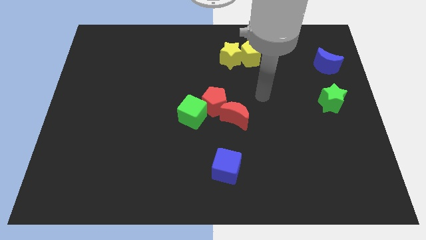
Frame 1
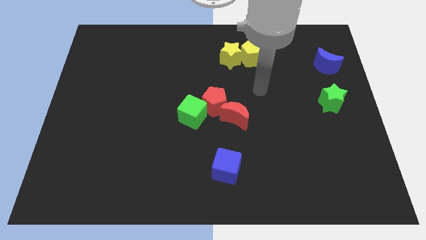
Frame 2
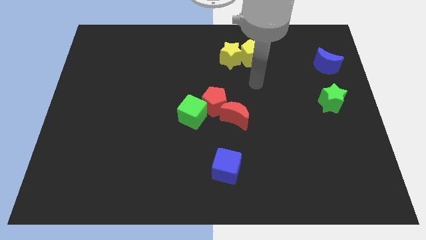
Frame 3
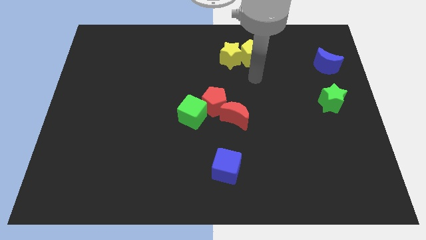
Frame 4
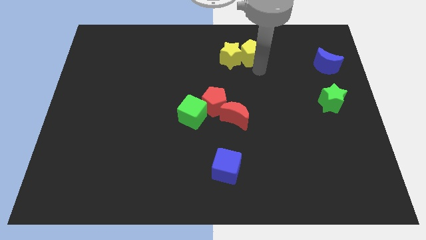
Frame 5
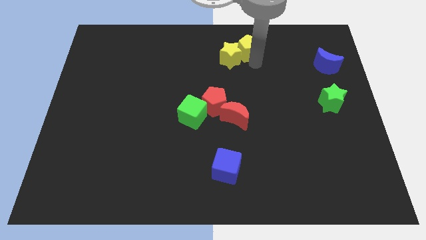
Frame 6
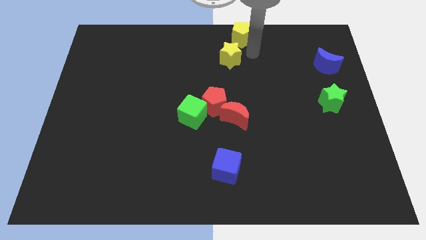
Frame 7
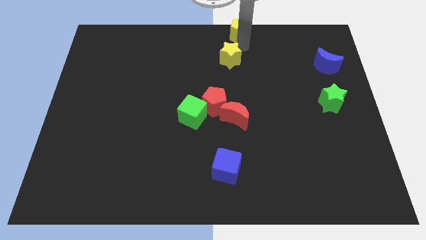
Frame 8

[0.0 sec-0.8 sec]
separate the yellow star from the yellow pentagon

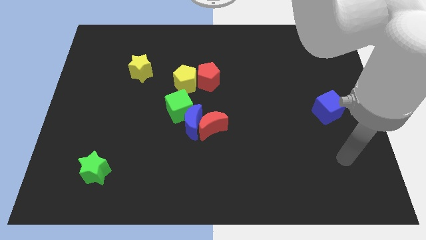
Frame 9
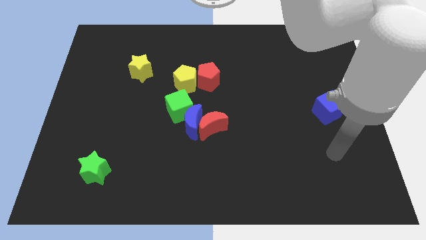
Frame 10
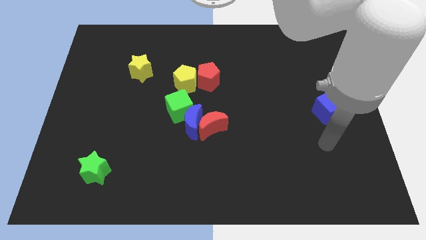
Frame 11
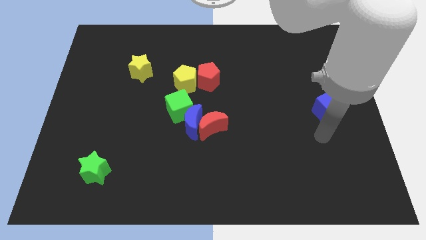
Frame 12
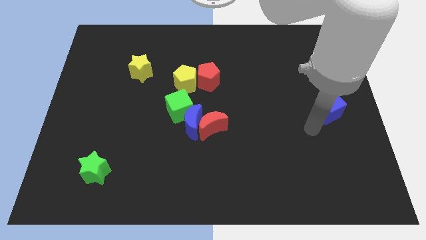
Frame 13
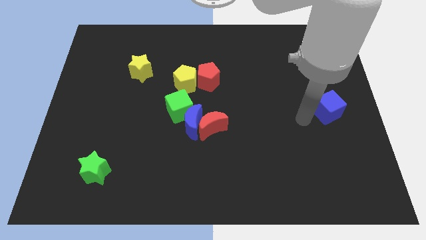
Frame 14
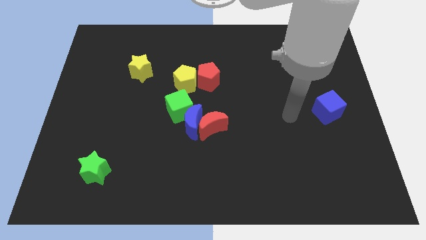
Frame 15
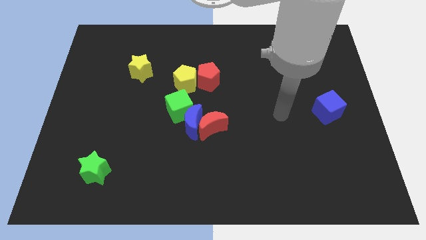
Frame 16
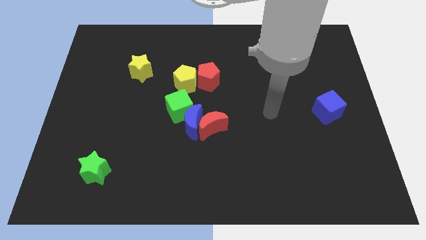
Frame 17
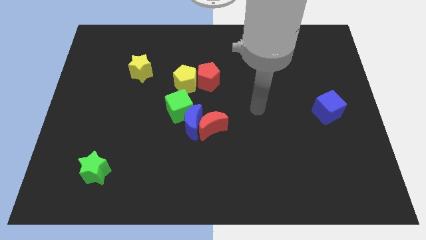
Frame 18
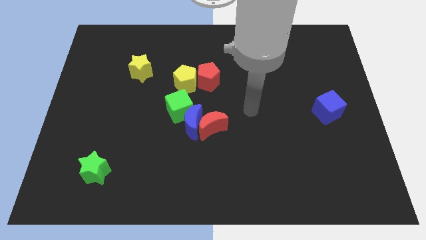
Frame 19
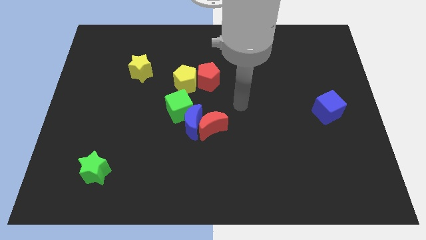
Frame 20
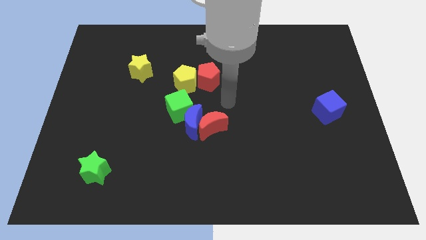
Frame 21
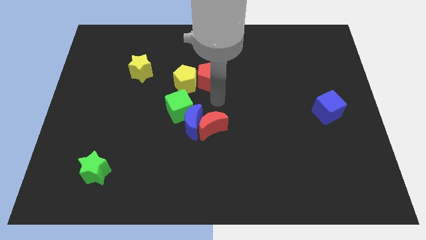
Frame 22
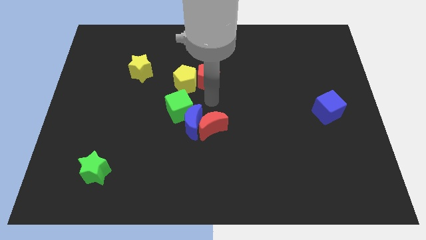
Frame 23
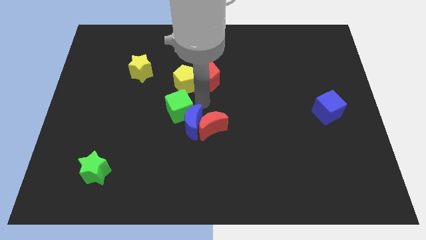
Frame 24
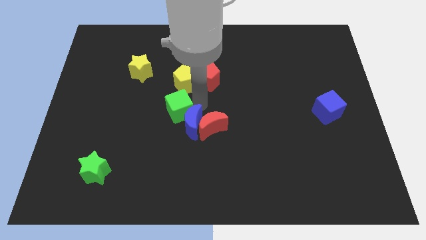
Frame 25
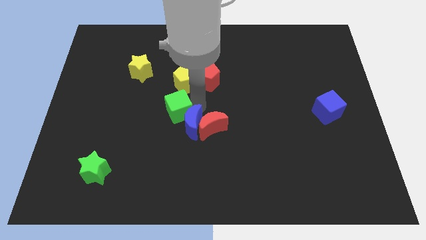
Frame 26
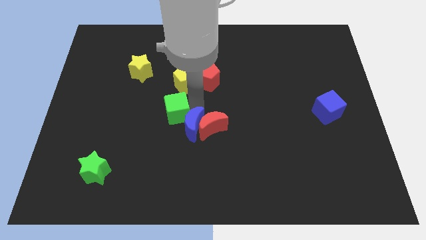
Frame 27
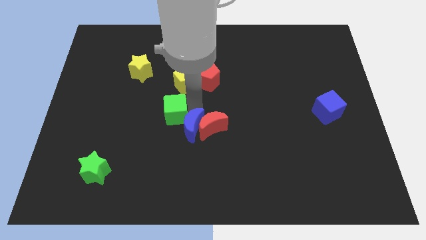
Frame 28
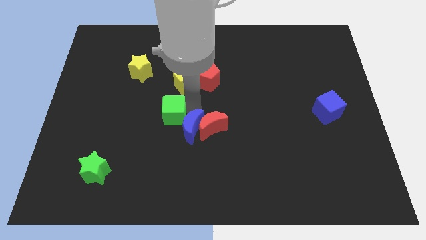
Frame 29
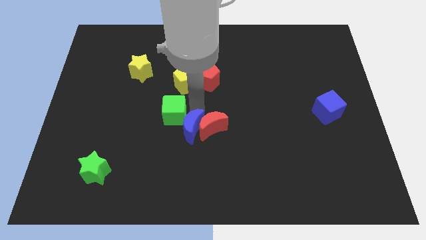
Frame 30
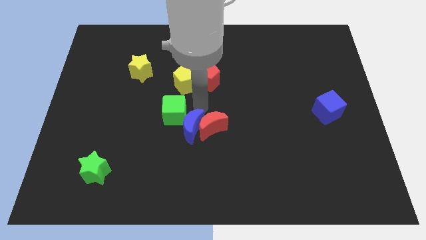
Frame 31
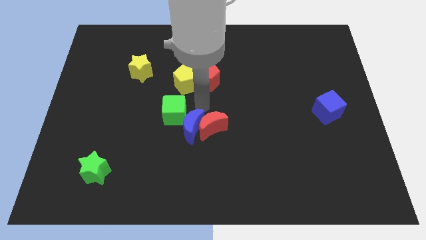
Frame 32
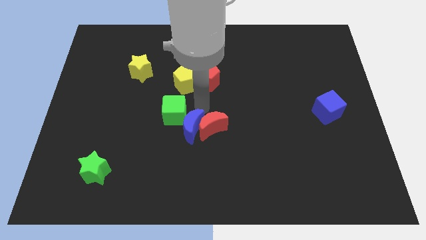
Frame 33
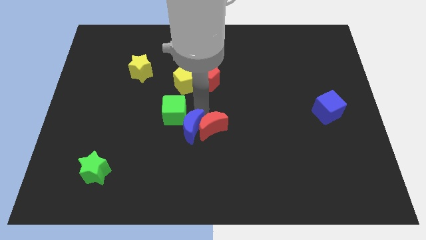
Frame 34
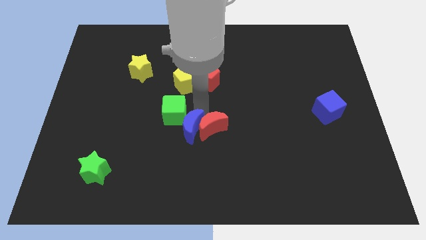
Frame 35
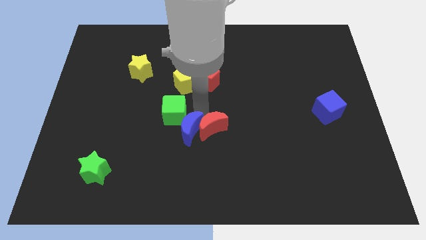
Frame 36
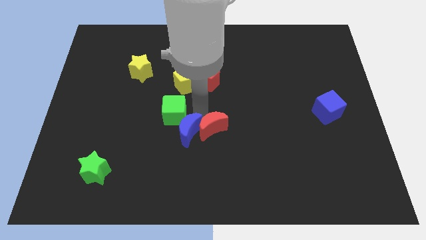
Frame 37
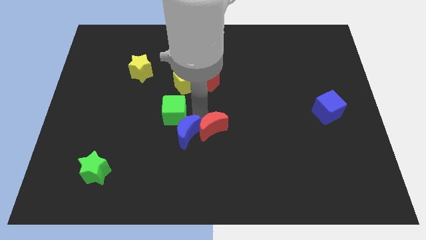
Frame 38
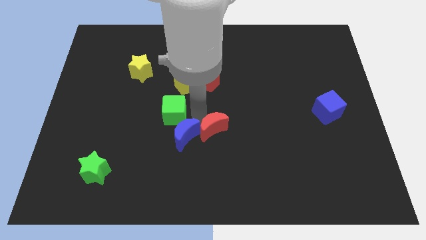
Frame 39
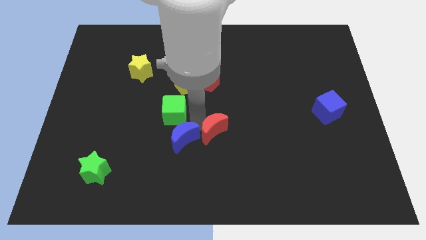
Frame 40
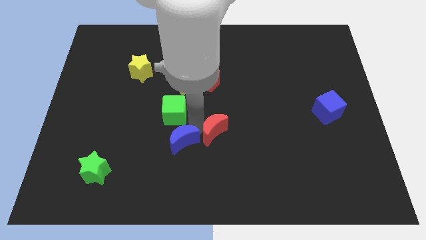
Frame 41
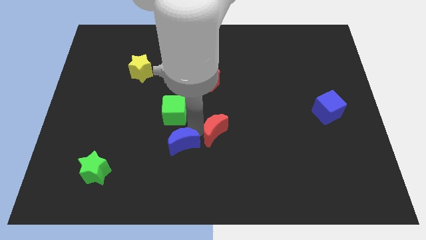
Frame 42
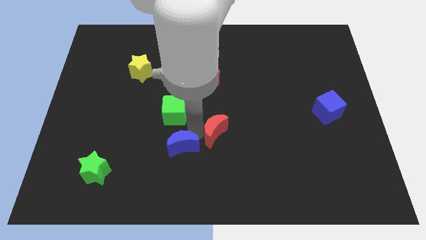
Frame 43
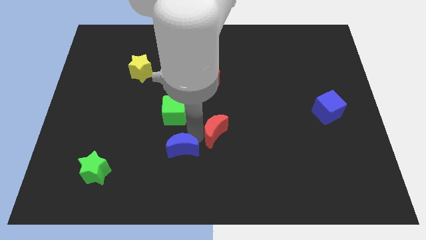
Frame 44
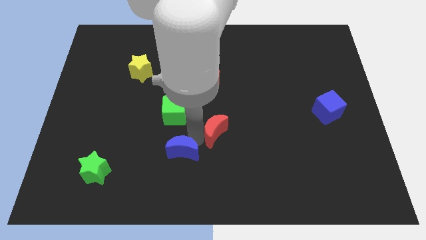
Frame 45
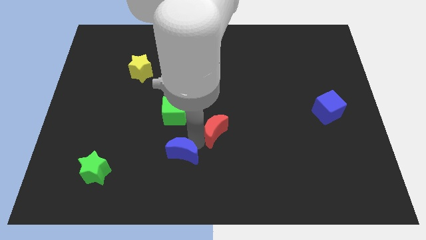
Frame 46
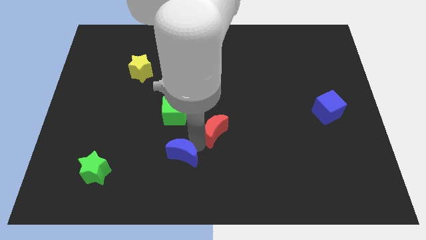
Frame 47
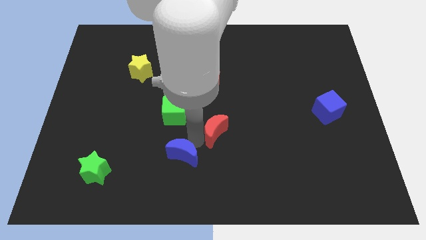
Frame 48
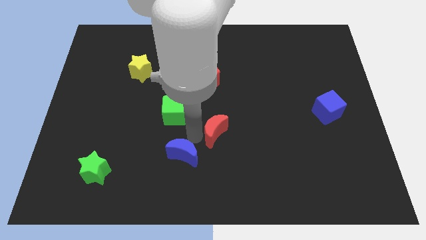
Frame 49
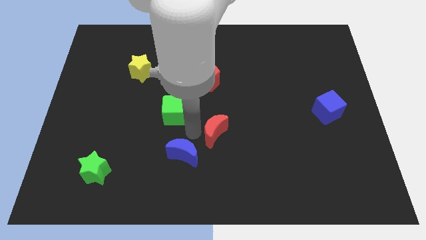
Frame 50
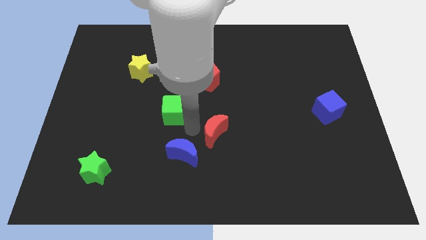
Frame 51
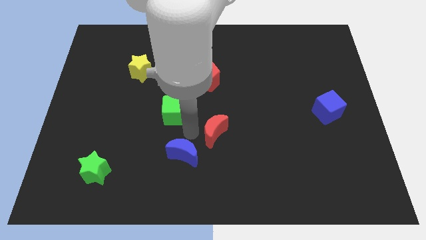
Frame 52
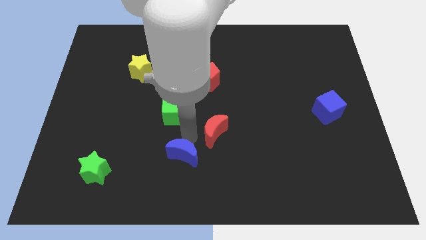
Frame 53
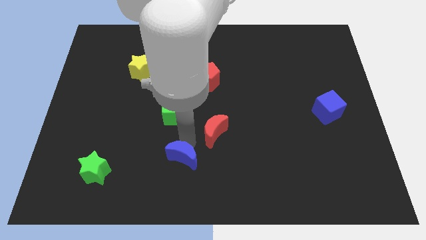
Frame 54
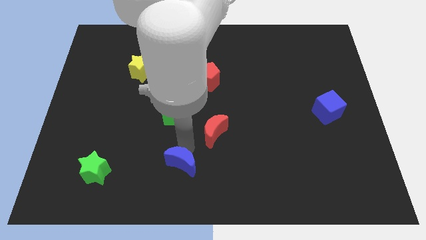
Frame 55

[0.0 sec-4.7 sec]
pull the blue moon apart from the red moon and green cube

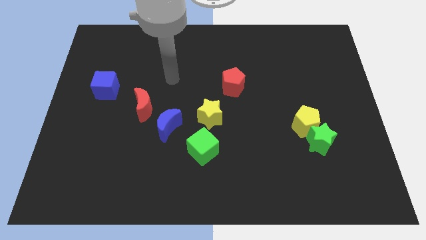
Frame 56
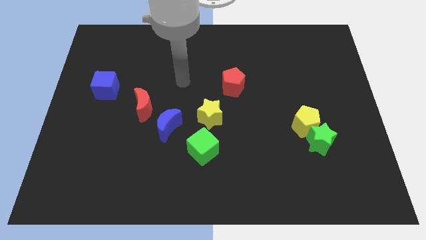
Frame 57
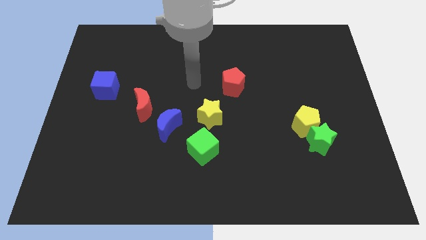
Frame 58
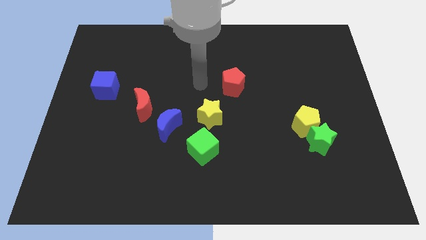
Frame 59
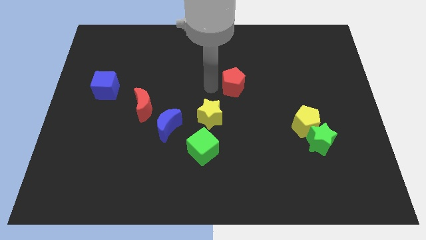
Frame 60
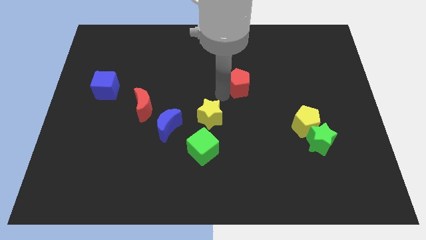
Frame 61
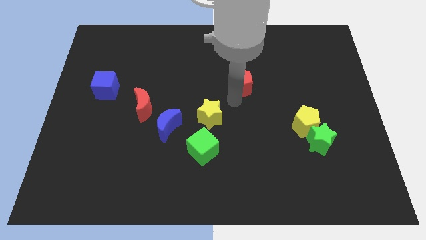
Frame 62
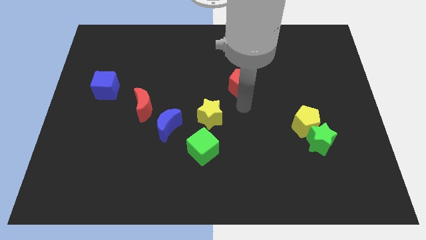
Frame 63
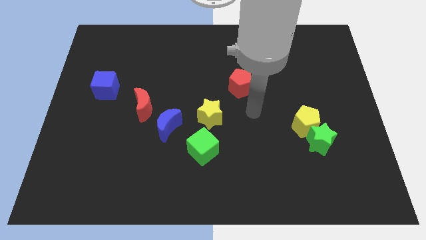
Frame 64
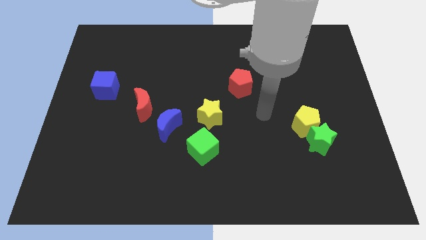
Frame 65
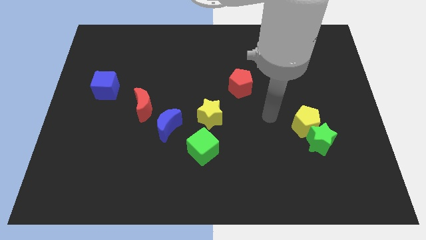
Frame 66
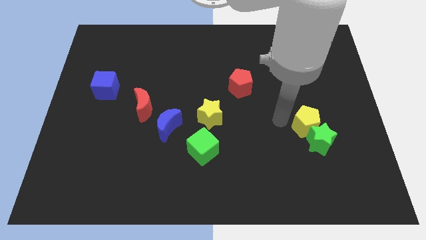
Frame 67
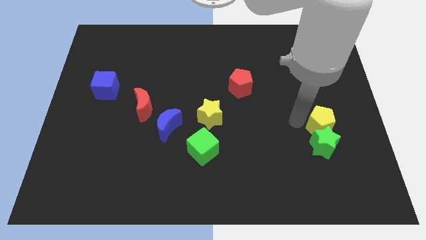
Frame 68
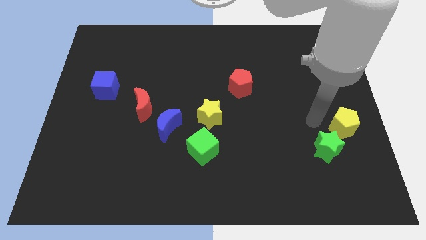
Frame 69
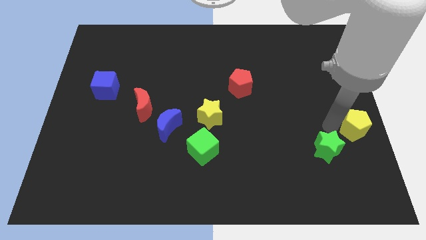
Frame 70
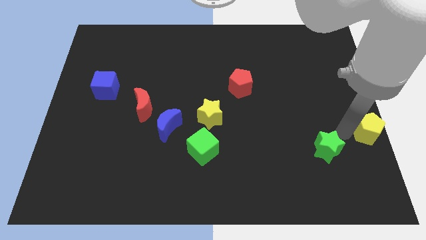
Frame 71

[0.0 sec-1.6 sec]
separate the green star from the yellow pentagon

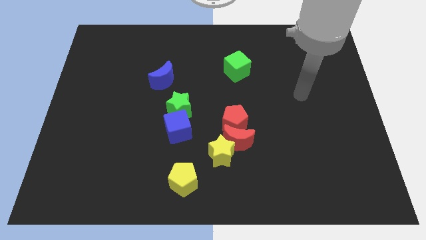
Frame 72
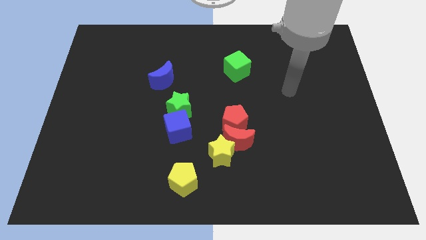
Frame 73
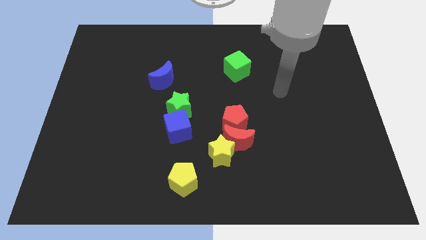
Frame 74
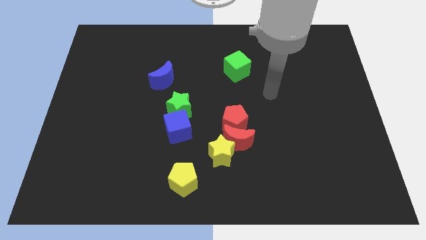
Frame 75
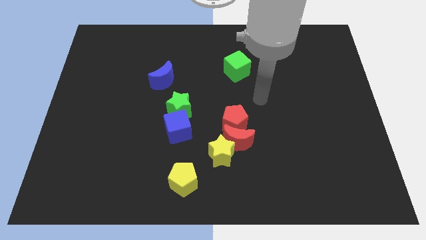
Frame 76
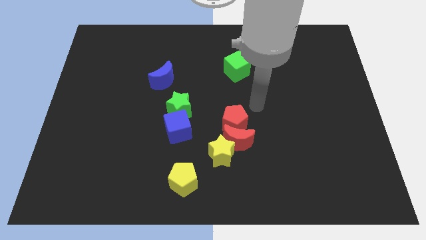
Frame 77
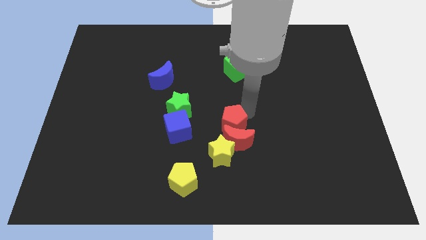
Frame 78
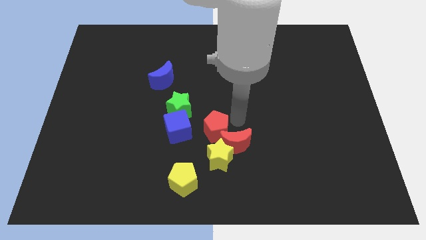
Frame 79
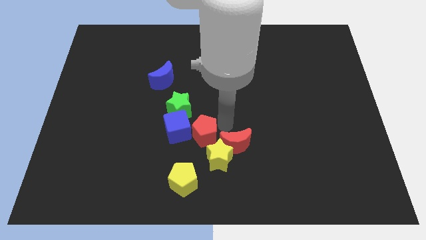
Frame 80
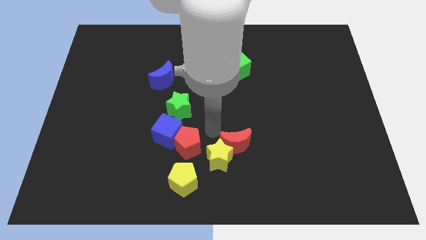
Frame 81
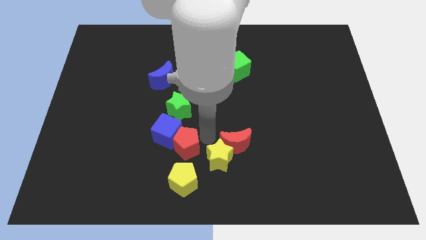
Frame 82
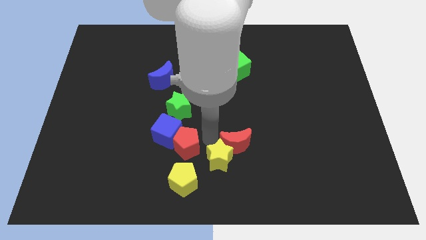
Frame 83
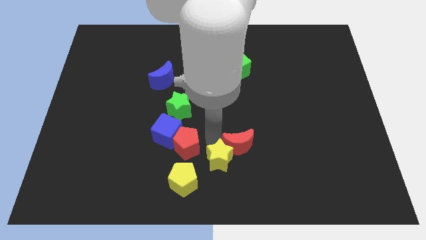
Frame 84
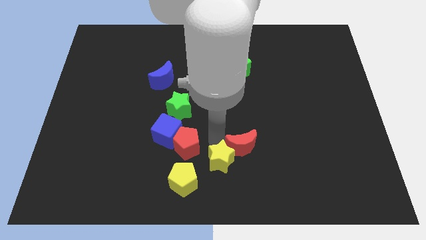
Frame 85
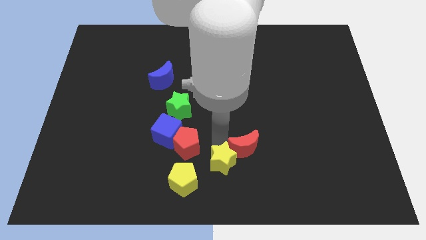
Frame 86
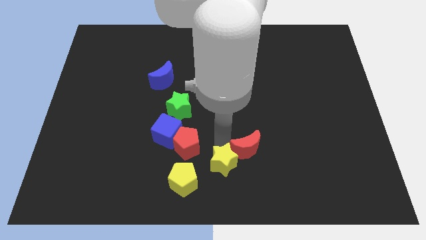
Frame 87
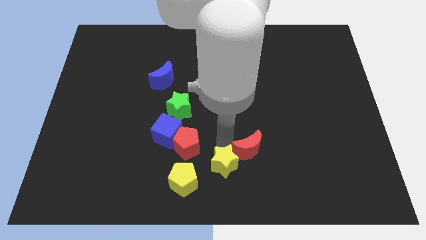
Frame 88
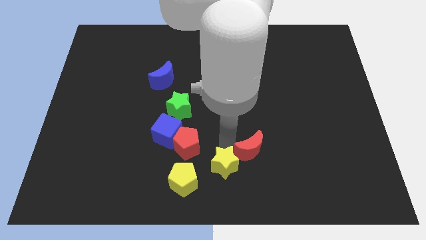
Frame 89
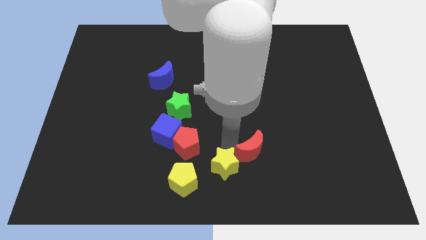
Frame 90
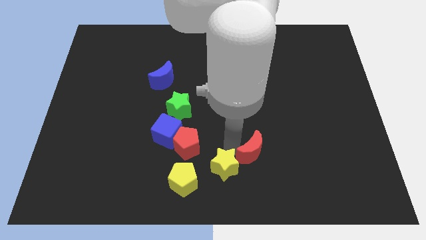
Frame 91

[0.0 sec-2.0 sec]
pull the red moon apart from the red pentagon and yellow star

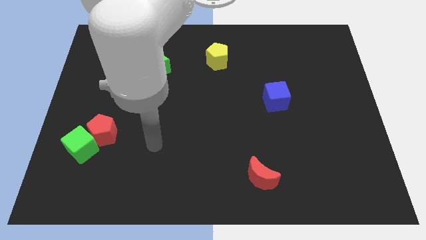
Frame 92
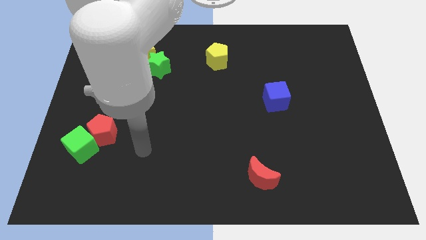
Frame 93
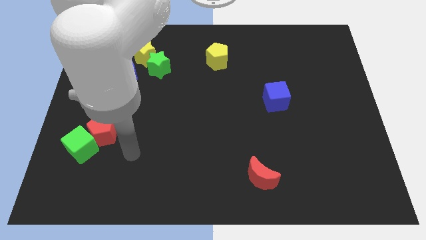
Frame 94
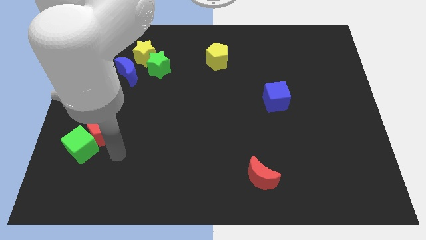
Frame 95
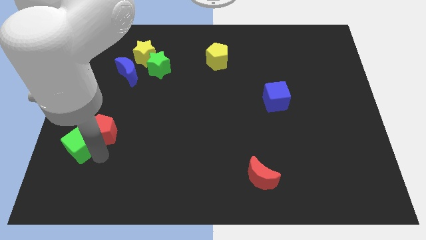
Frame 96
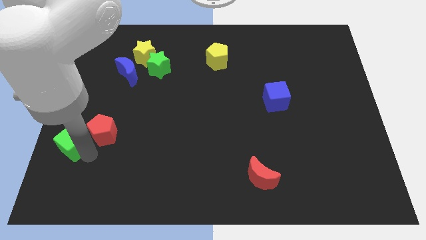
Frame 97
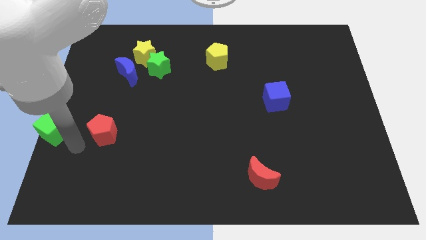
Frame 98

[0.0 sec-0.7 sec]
separate the red pentagon from the green cube
